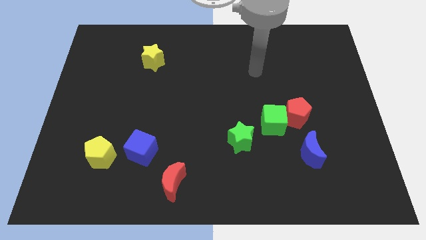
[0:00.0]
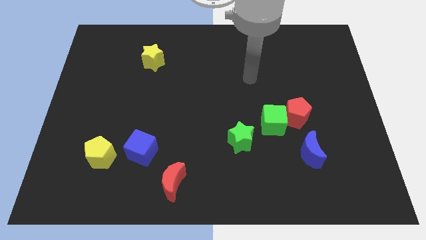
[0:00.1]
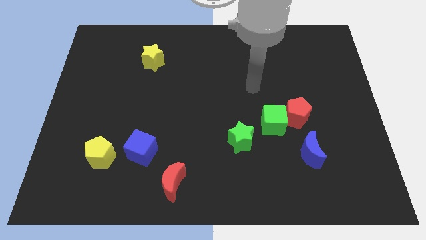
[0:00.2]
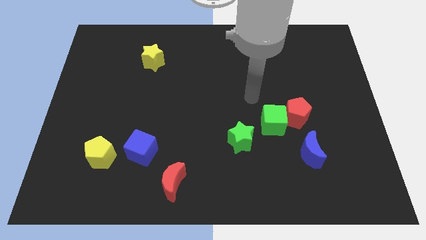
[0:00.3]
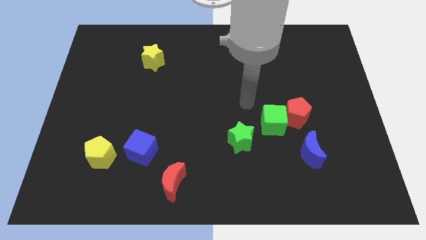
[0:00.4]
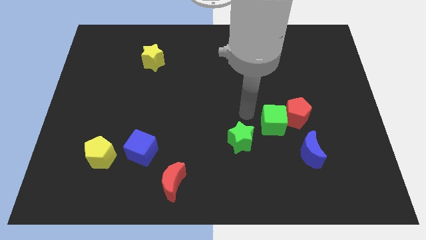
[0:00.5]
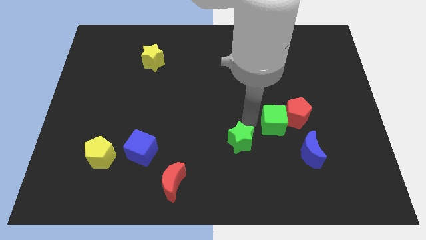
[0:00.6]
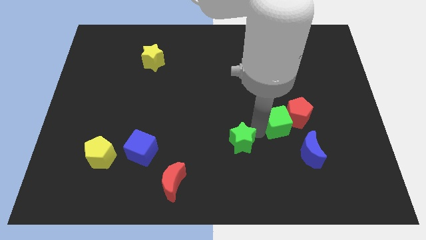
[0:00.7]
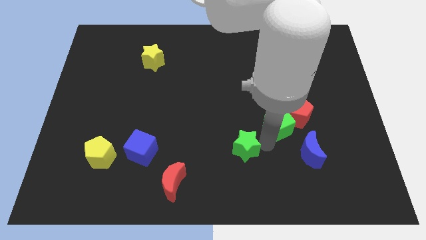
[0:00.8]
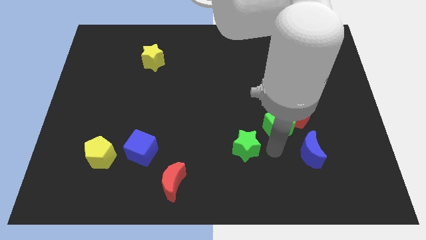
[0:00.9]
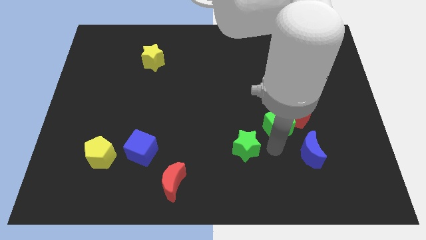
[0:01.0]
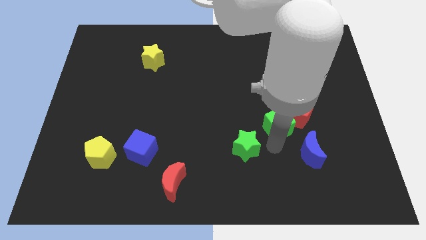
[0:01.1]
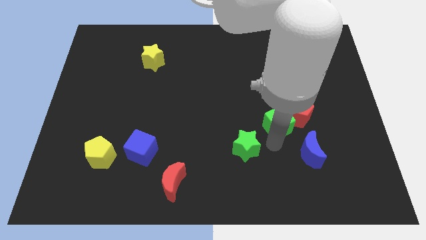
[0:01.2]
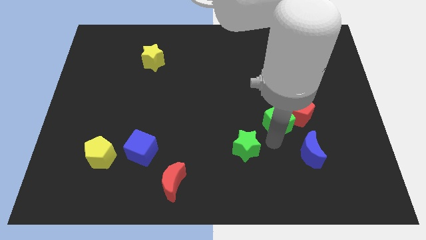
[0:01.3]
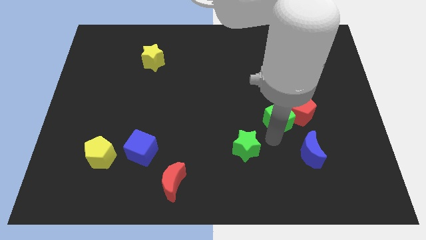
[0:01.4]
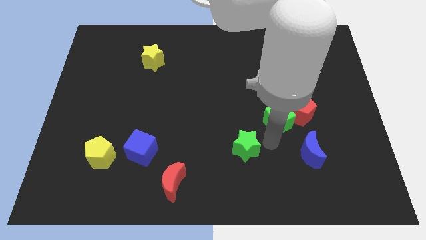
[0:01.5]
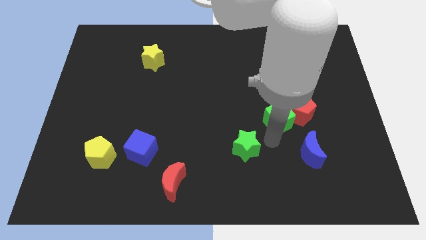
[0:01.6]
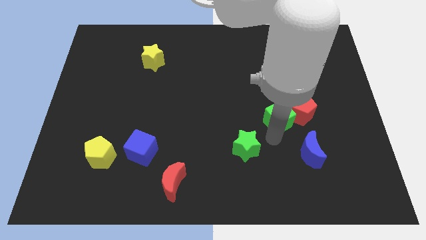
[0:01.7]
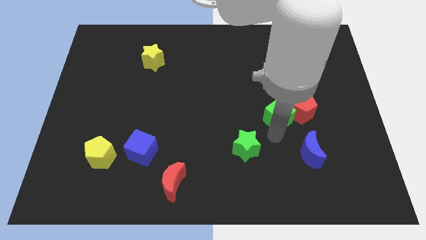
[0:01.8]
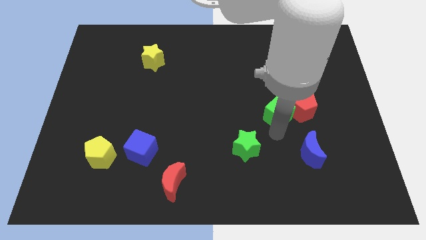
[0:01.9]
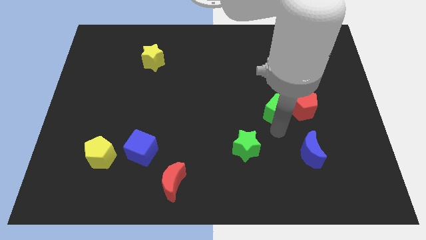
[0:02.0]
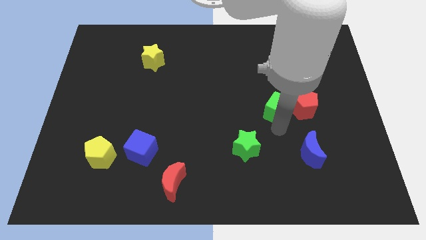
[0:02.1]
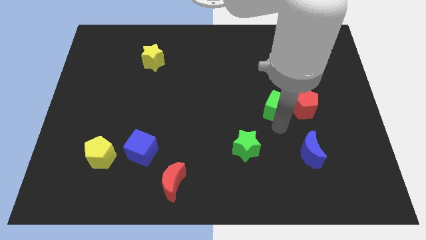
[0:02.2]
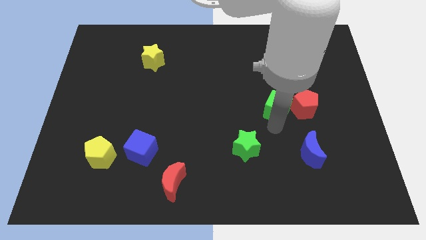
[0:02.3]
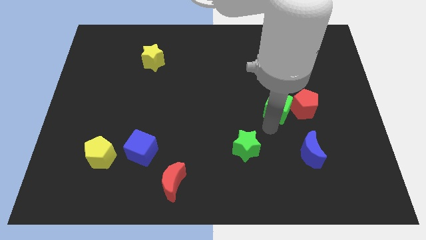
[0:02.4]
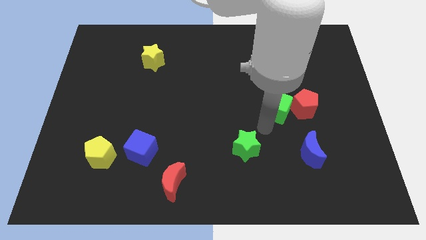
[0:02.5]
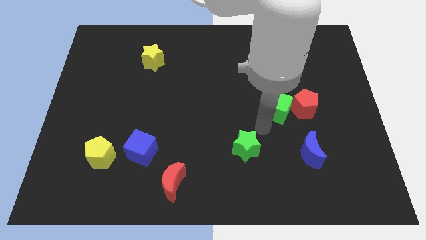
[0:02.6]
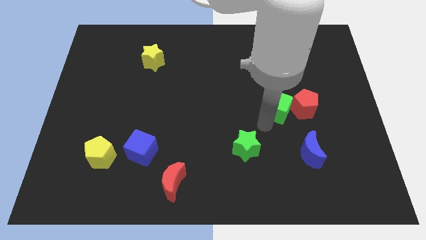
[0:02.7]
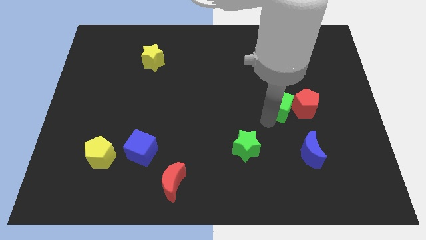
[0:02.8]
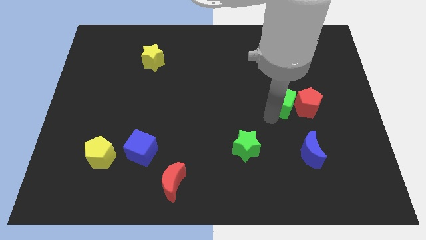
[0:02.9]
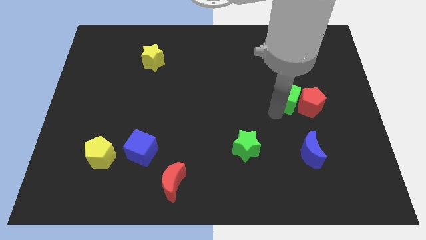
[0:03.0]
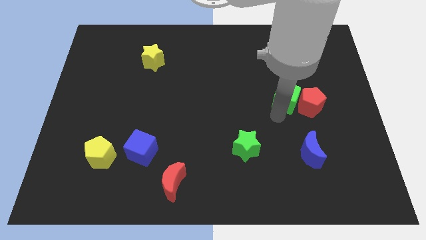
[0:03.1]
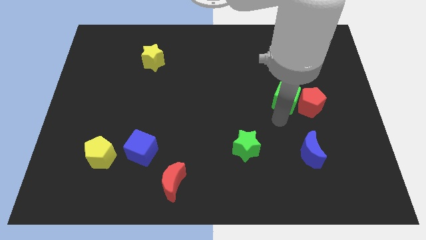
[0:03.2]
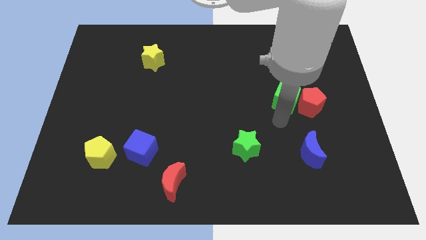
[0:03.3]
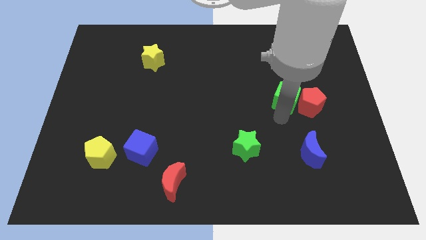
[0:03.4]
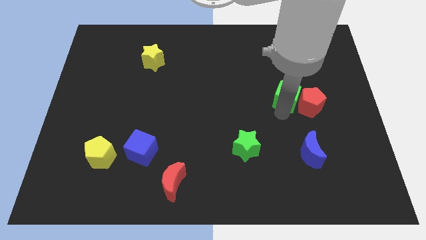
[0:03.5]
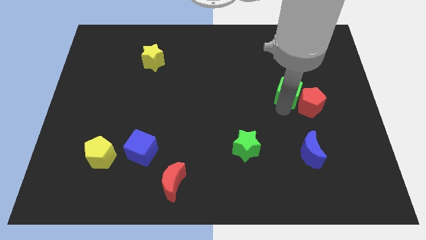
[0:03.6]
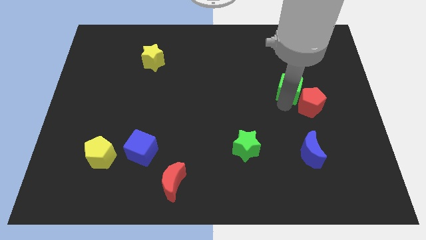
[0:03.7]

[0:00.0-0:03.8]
move the green cube away from the red pentagon and green star

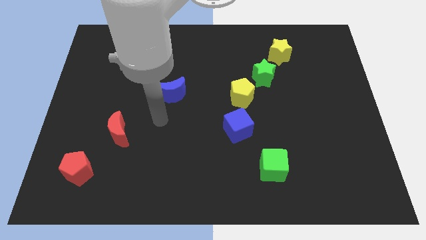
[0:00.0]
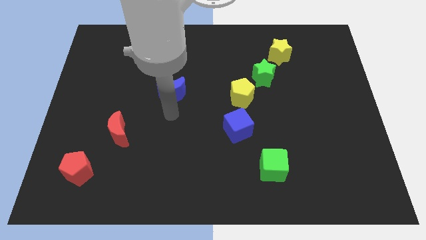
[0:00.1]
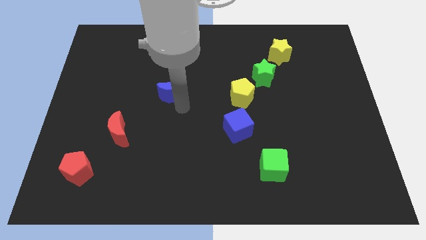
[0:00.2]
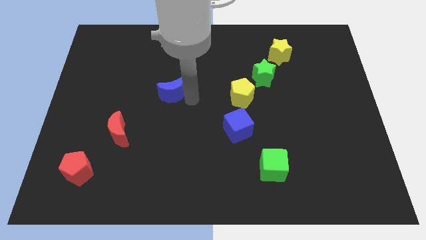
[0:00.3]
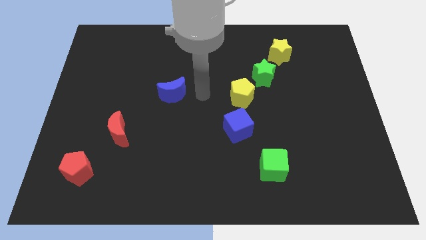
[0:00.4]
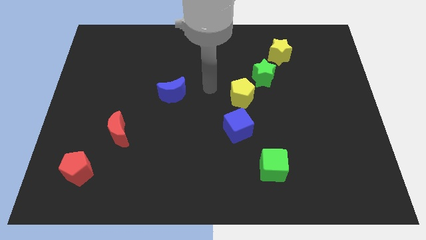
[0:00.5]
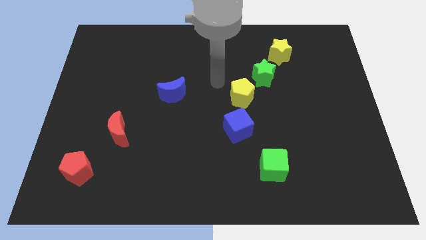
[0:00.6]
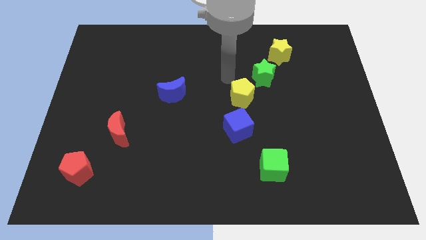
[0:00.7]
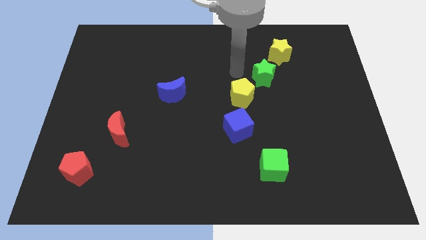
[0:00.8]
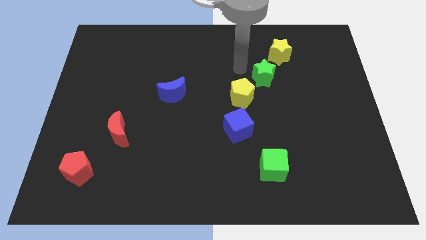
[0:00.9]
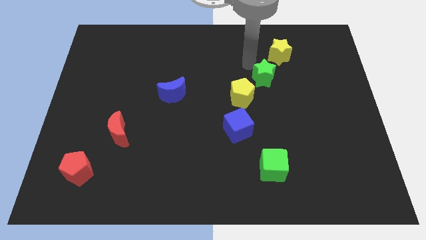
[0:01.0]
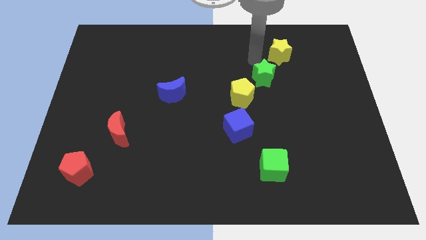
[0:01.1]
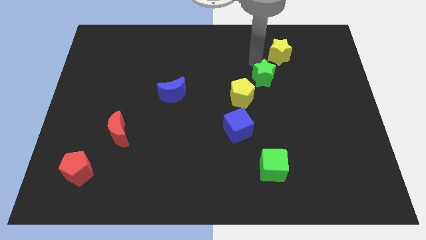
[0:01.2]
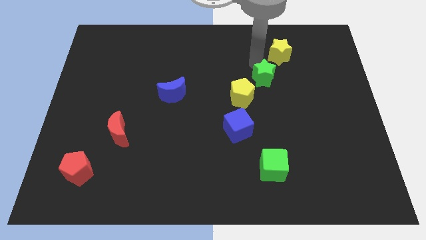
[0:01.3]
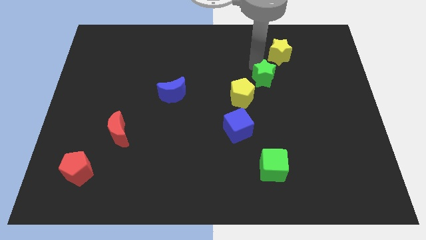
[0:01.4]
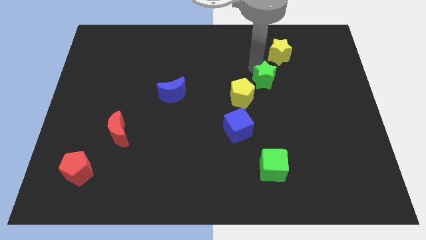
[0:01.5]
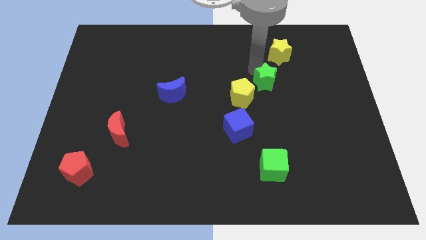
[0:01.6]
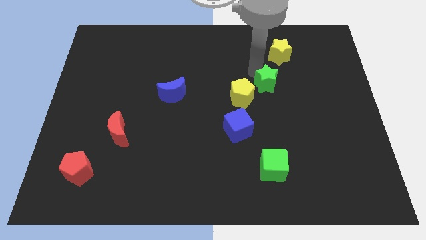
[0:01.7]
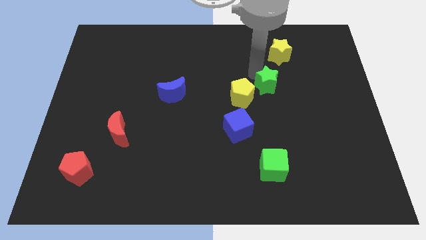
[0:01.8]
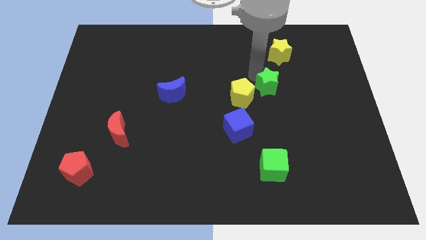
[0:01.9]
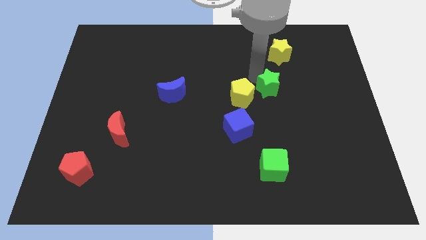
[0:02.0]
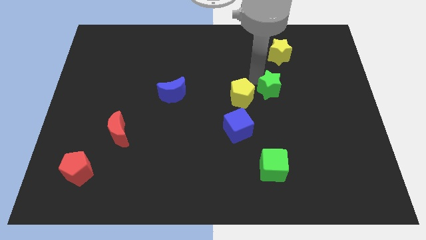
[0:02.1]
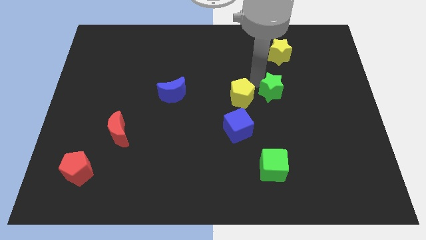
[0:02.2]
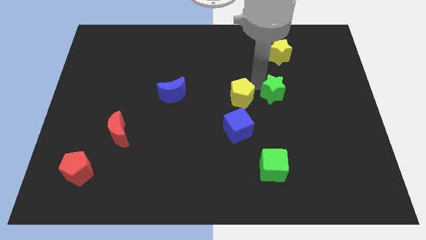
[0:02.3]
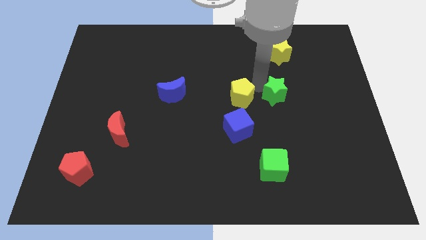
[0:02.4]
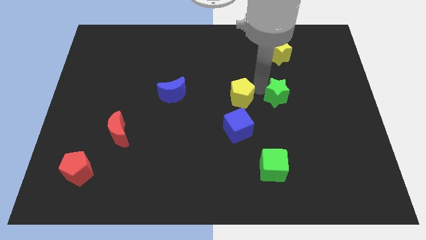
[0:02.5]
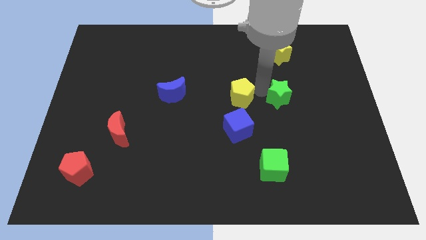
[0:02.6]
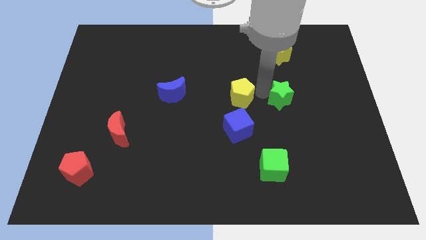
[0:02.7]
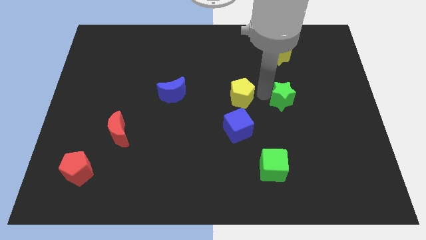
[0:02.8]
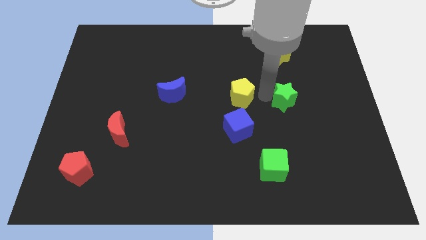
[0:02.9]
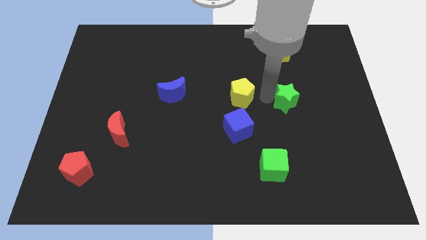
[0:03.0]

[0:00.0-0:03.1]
pull the green star apart from the yellow pentagon and yellow star

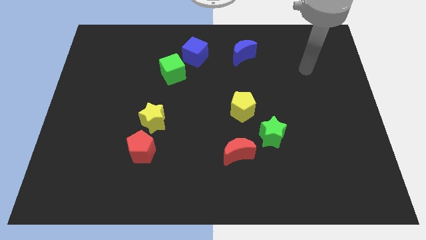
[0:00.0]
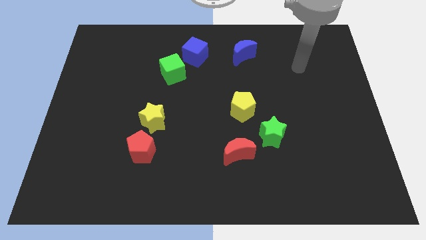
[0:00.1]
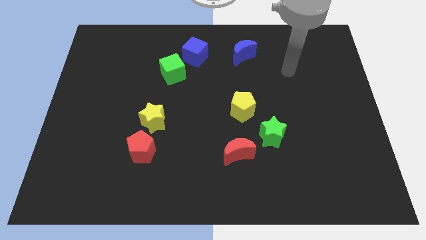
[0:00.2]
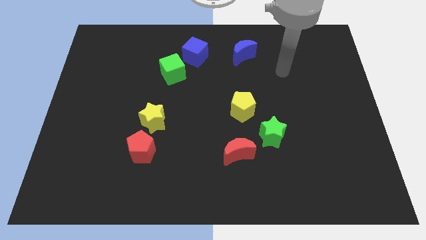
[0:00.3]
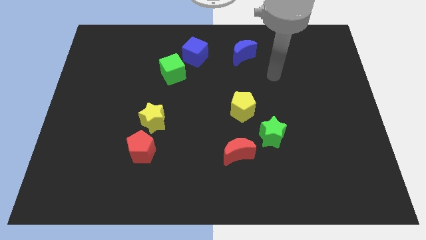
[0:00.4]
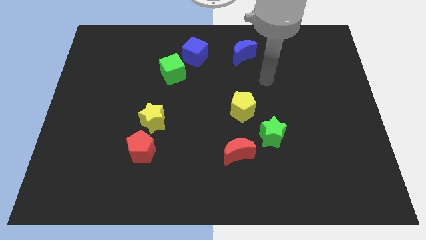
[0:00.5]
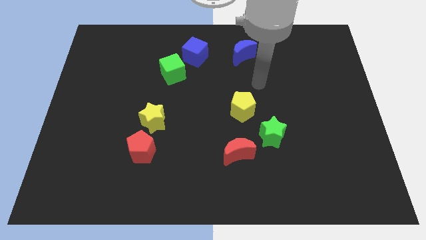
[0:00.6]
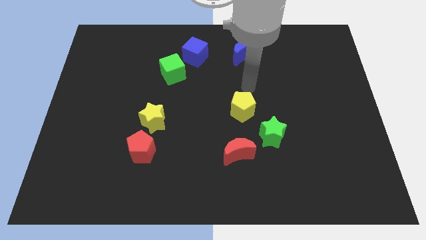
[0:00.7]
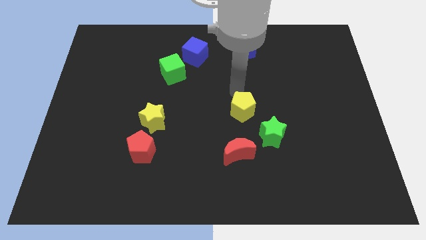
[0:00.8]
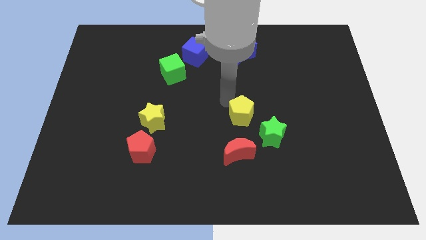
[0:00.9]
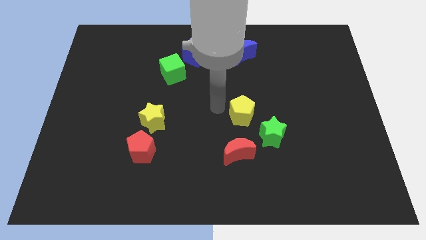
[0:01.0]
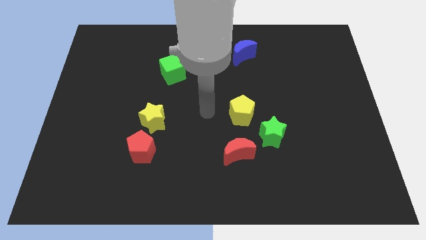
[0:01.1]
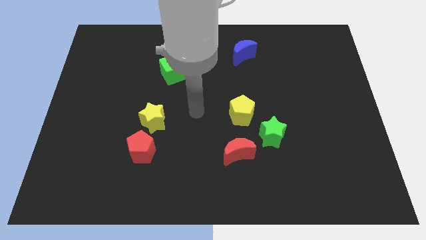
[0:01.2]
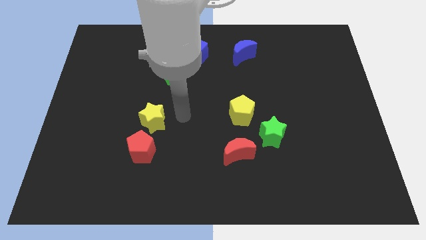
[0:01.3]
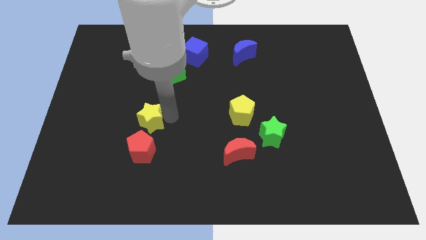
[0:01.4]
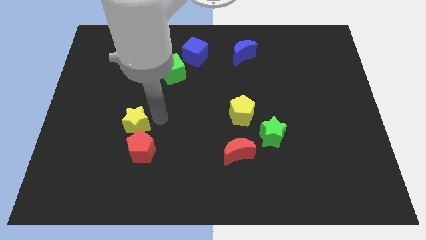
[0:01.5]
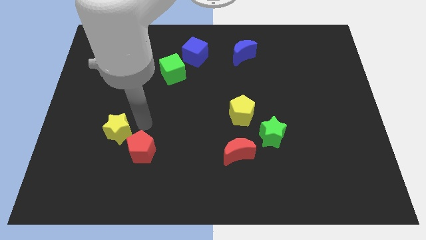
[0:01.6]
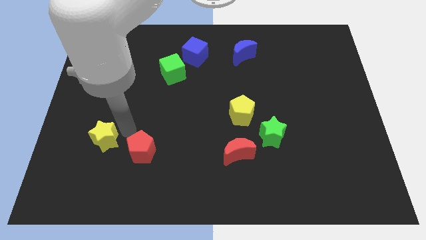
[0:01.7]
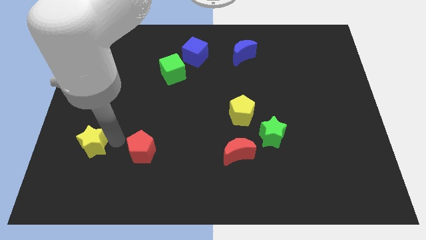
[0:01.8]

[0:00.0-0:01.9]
separate the red pentagon from the yellow star

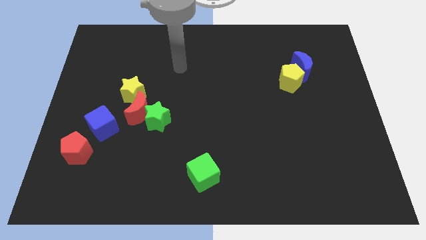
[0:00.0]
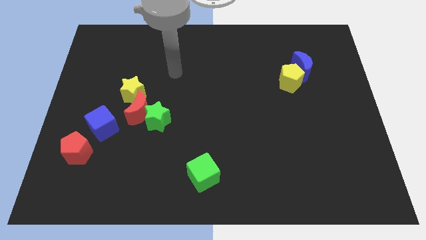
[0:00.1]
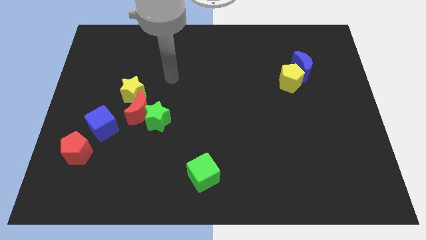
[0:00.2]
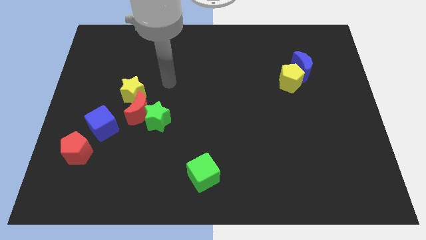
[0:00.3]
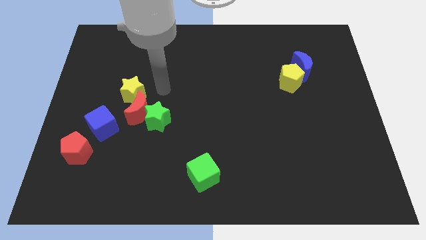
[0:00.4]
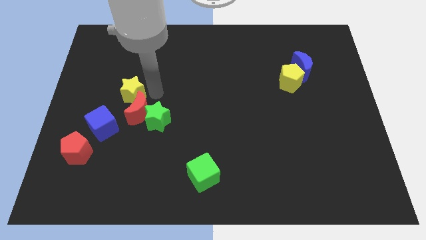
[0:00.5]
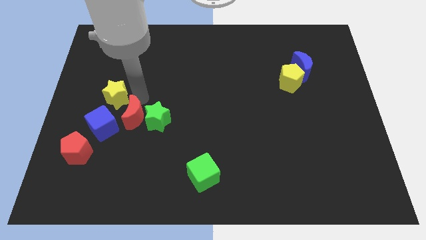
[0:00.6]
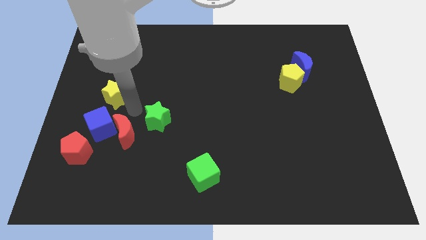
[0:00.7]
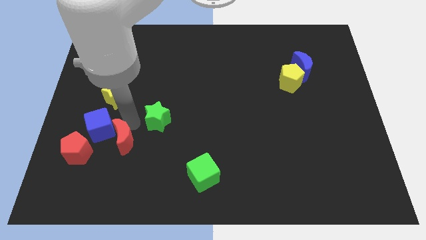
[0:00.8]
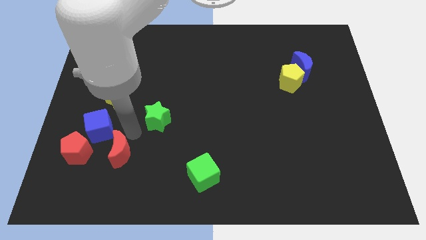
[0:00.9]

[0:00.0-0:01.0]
pull the green star apart from the red moon
